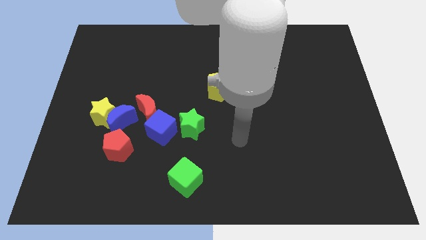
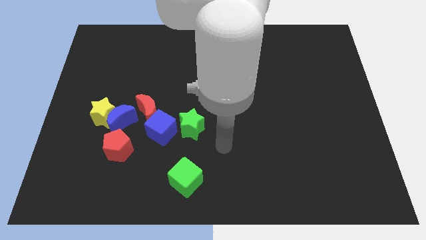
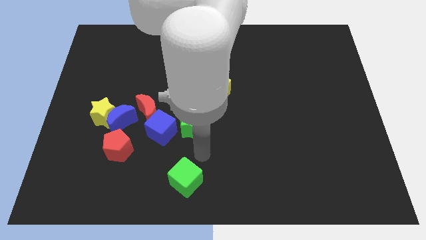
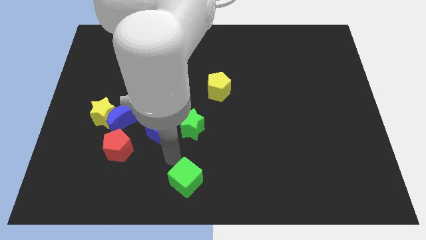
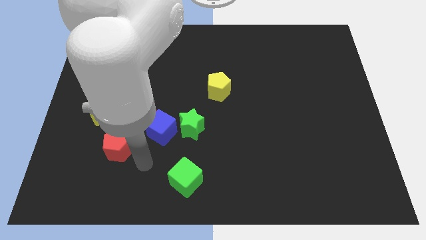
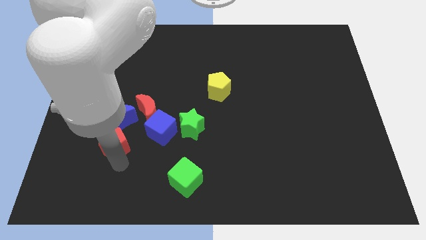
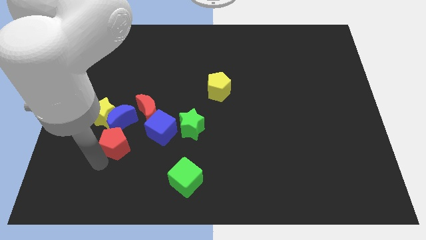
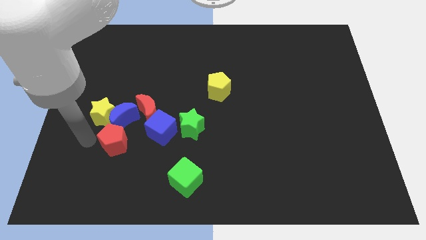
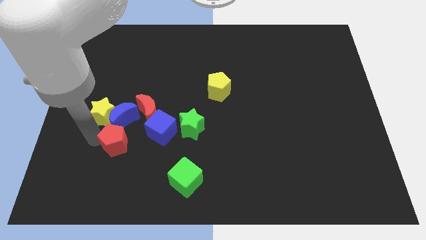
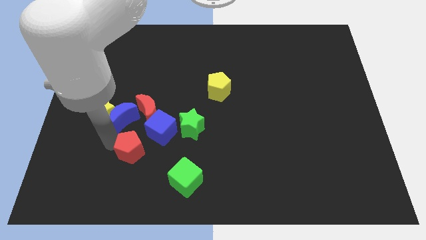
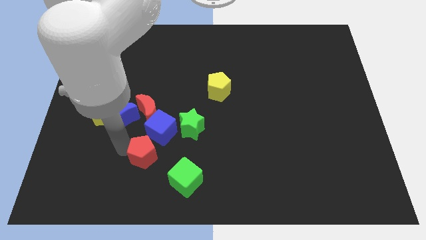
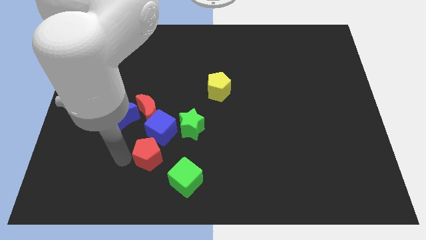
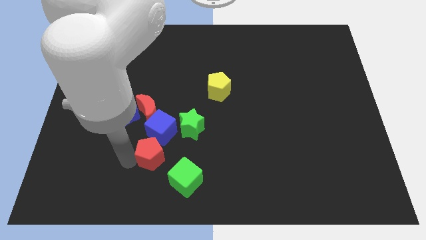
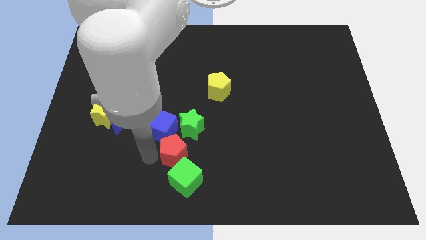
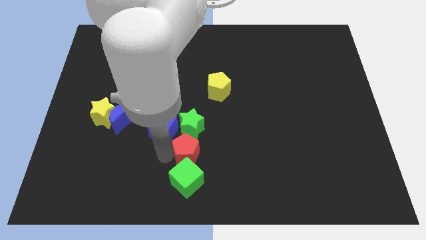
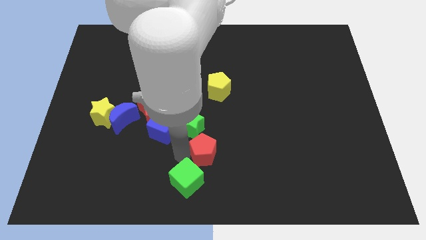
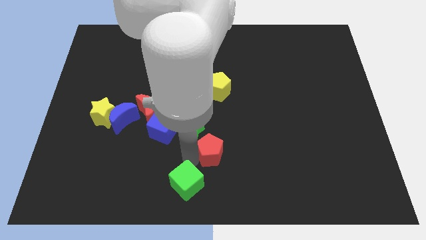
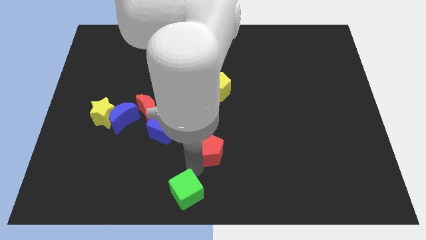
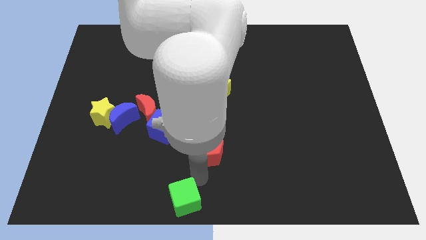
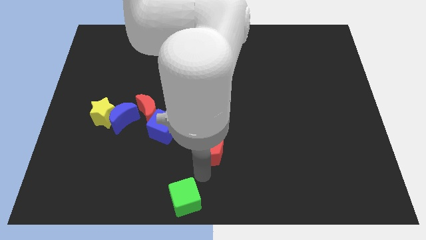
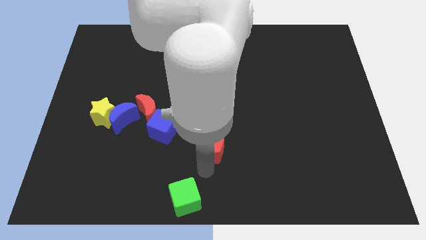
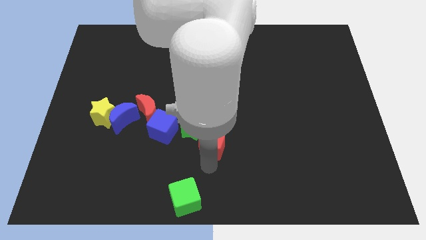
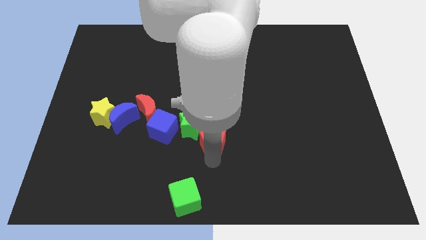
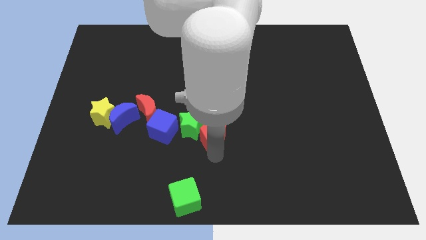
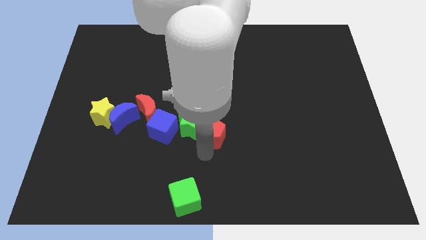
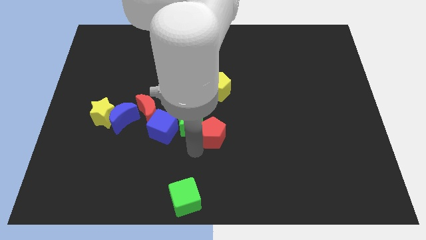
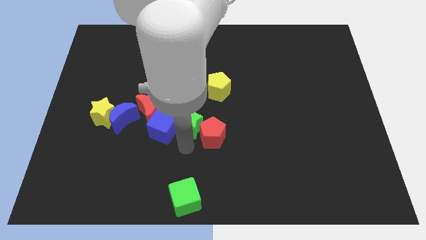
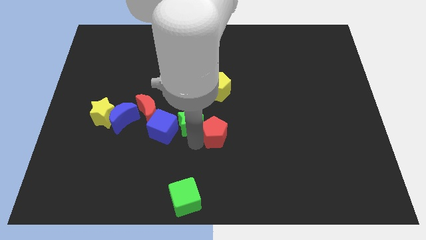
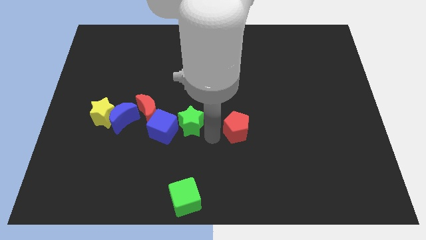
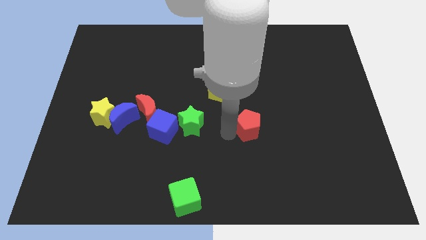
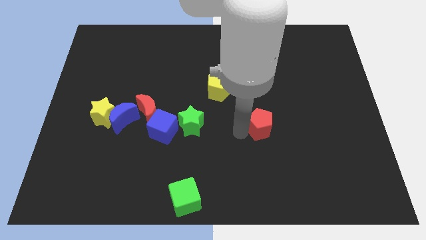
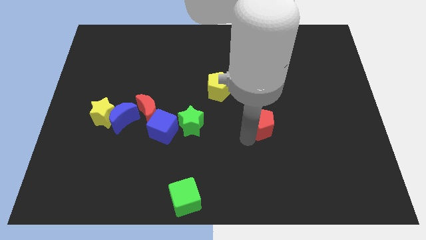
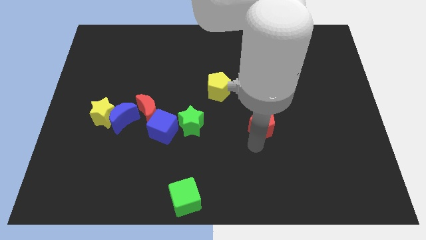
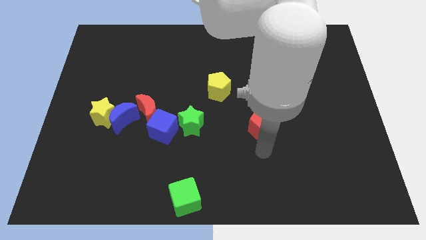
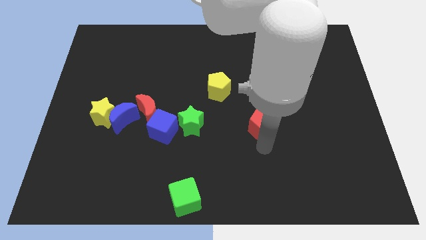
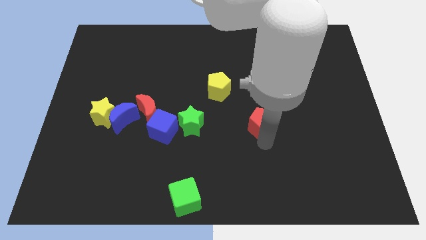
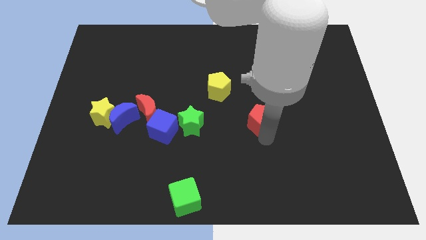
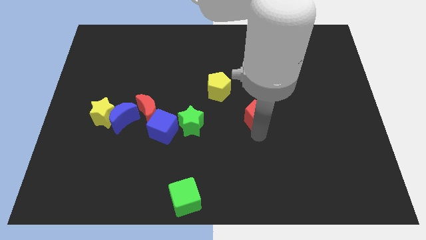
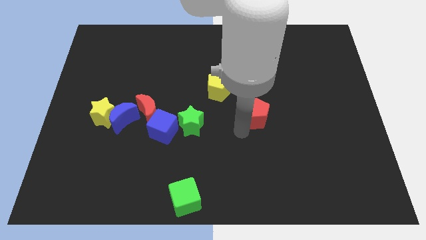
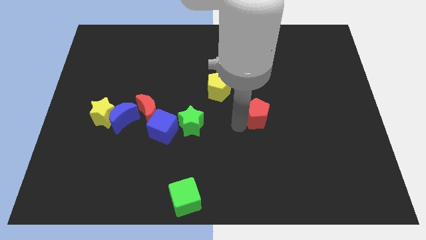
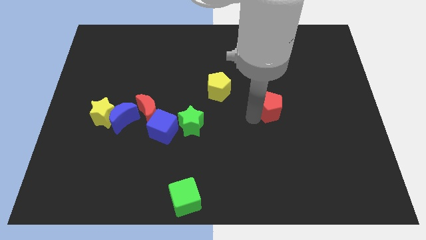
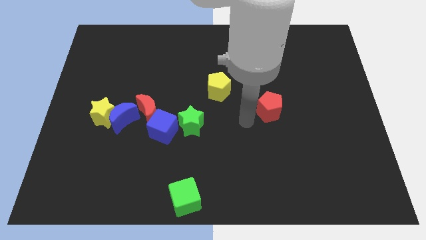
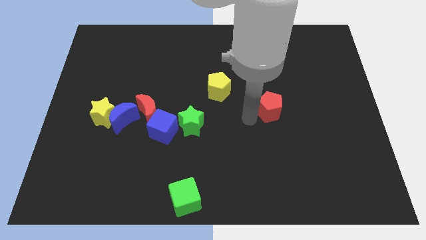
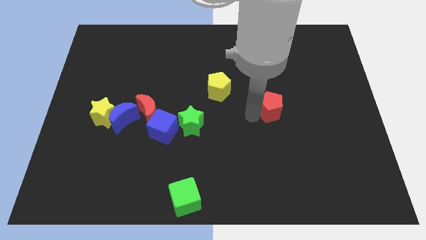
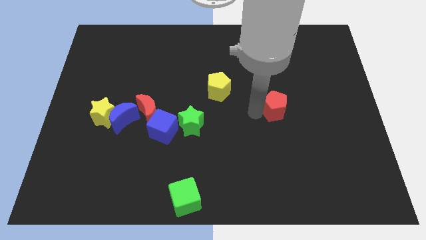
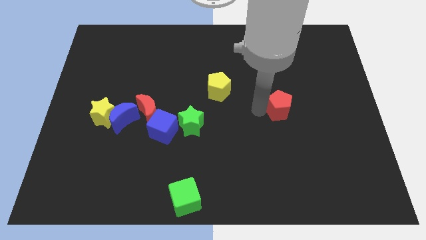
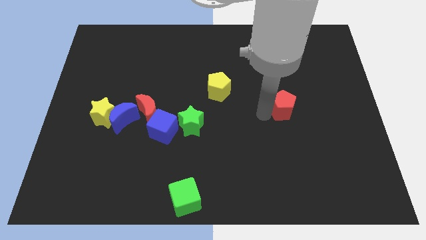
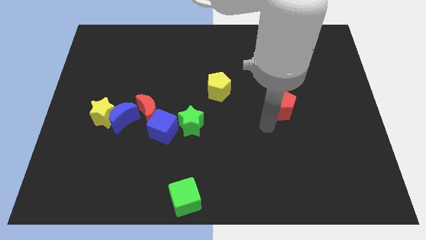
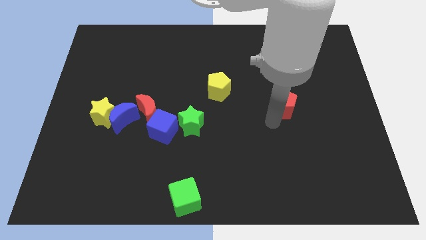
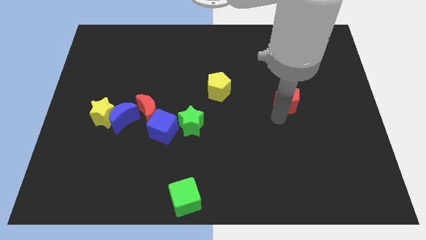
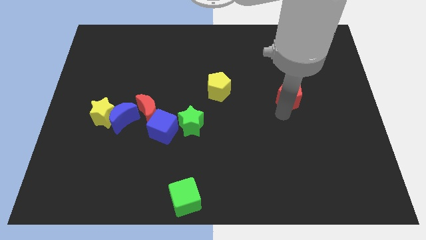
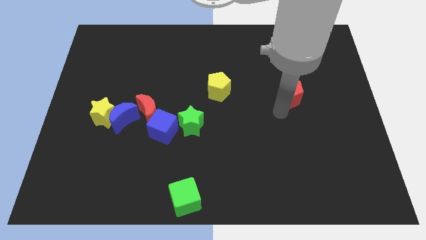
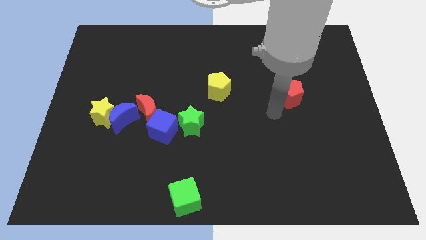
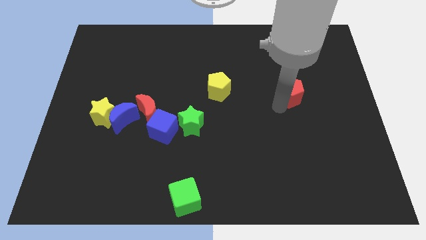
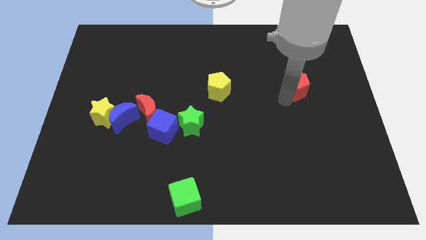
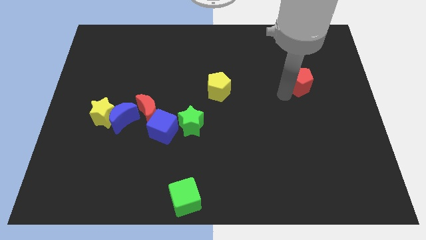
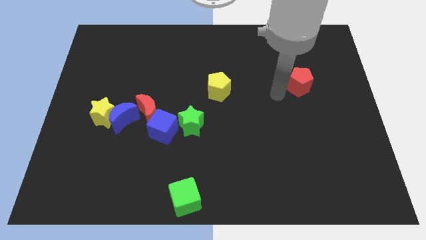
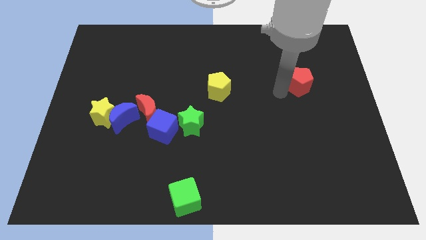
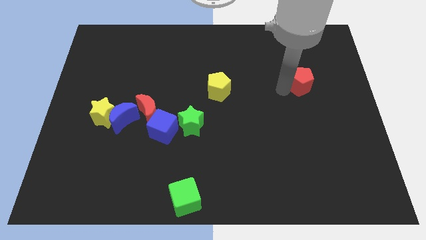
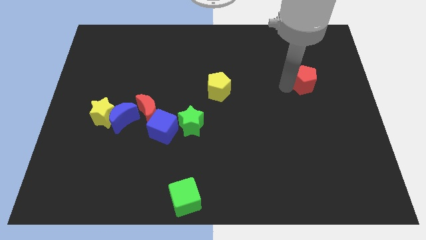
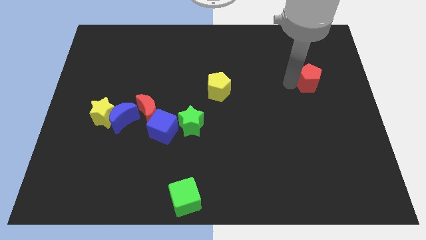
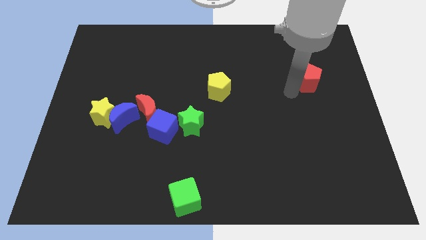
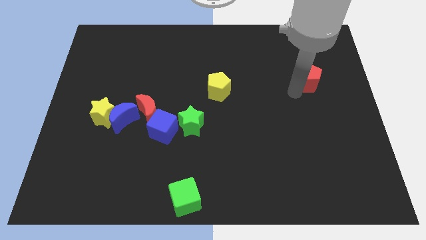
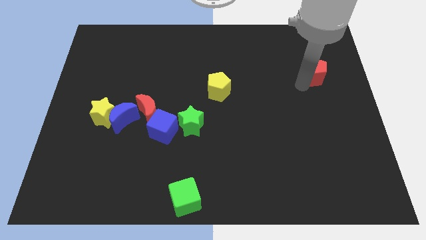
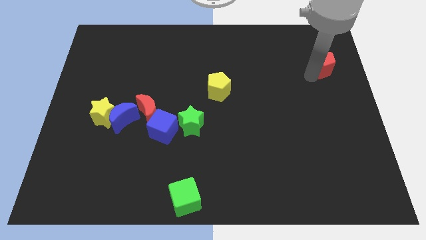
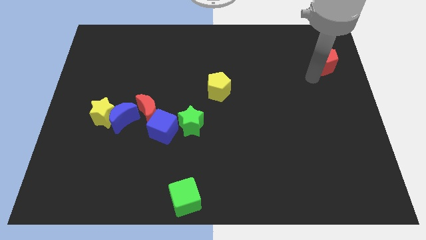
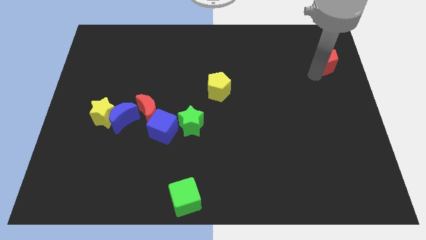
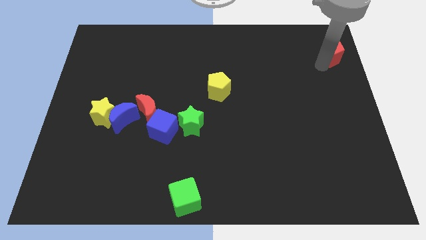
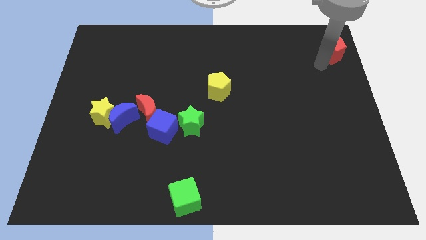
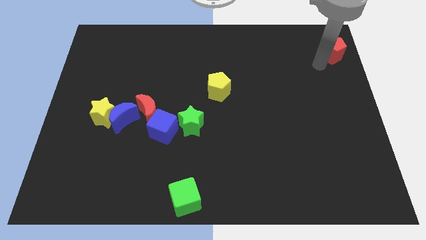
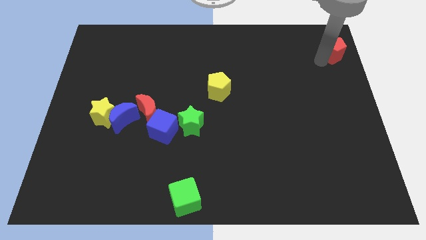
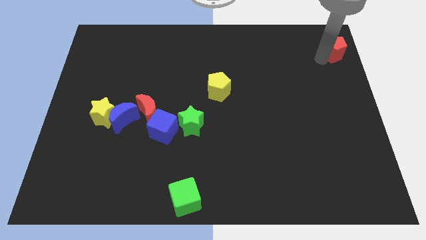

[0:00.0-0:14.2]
put the red pentagon to the top right corner
